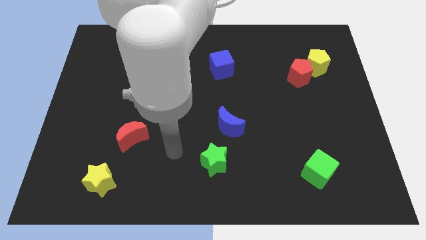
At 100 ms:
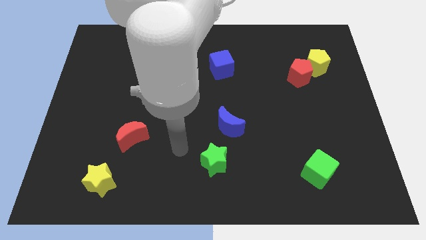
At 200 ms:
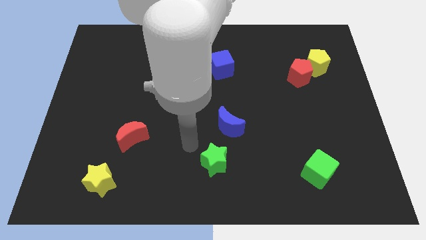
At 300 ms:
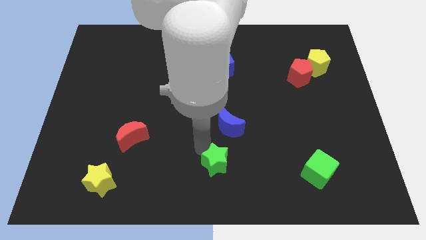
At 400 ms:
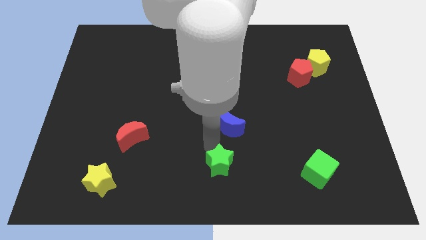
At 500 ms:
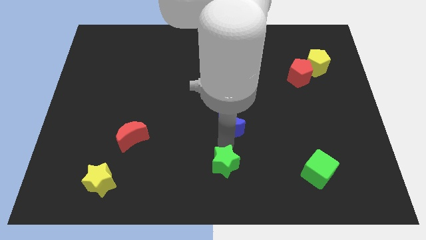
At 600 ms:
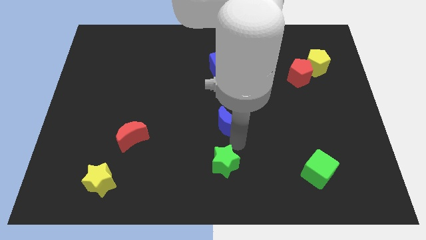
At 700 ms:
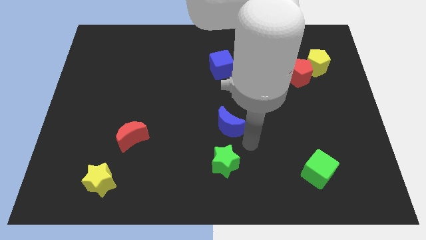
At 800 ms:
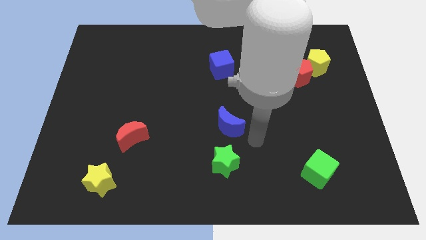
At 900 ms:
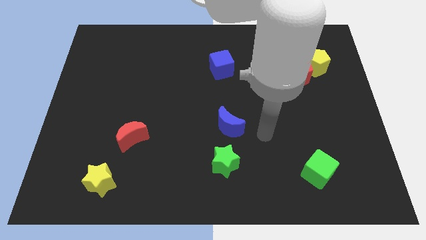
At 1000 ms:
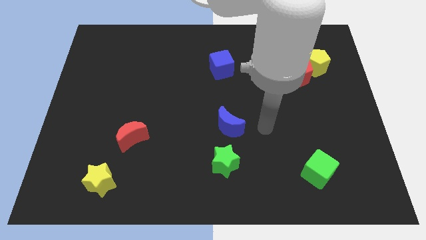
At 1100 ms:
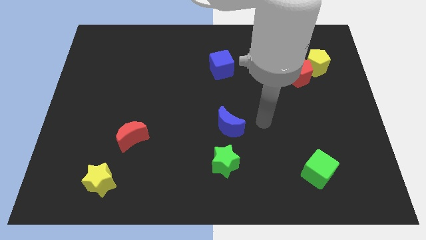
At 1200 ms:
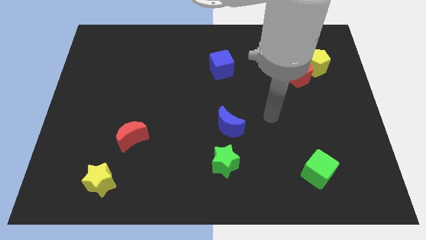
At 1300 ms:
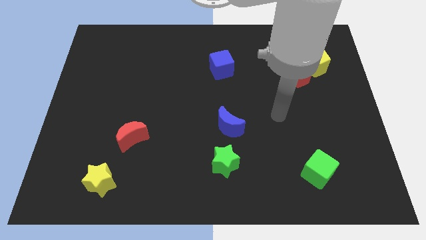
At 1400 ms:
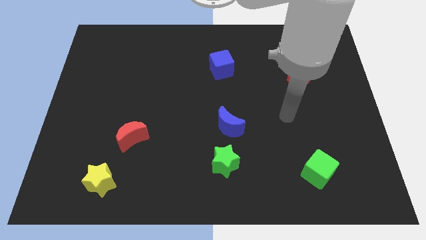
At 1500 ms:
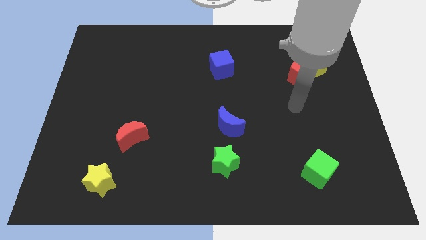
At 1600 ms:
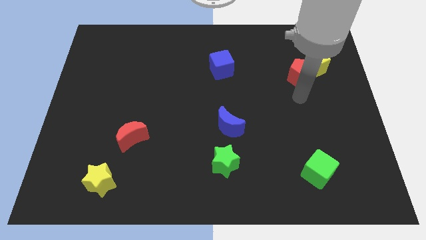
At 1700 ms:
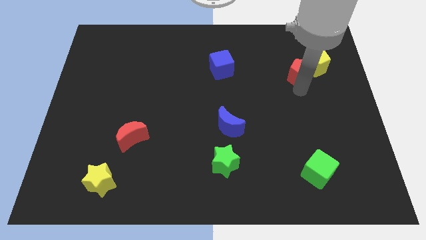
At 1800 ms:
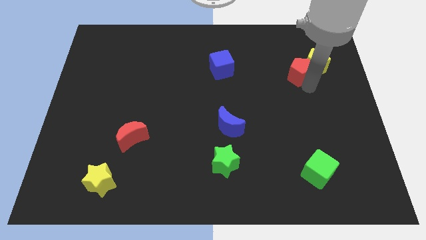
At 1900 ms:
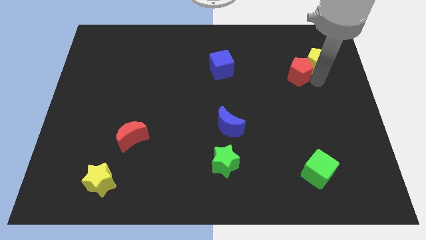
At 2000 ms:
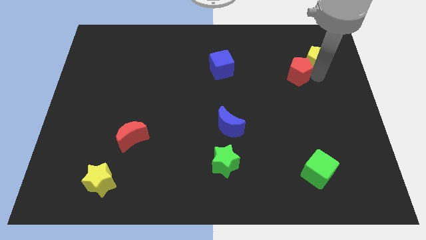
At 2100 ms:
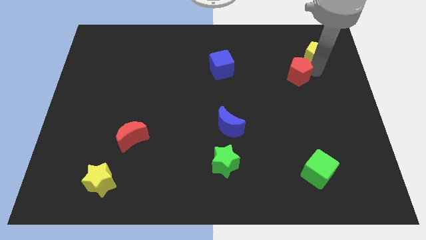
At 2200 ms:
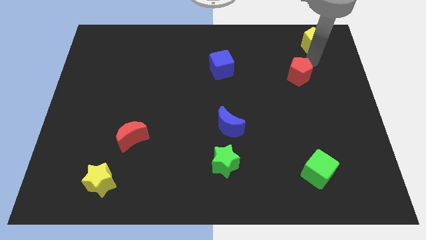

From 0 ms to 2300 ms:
move the red pentagon away from the yellow pentagon

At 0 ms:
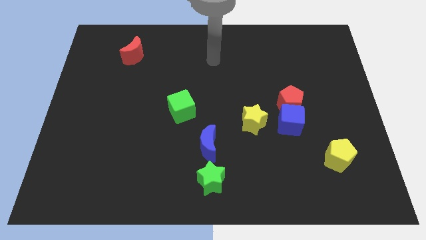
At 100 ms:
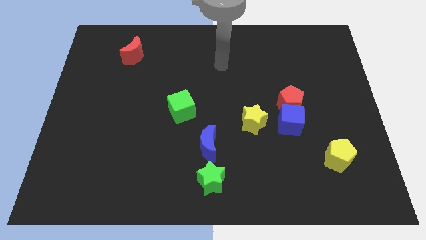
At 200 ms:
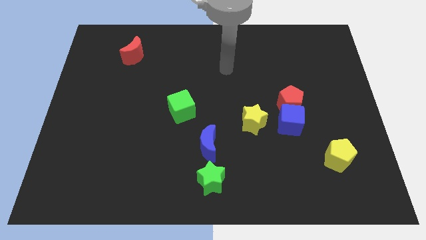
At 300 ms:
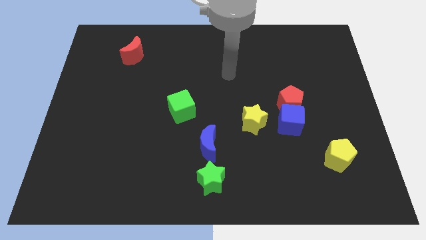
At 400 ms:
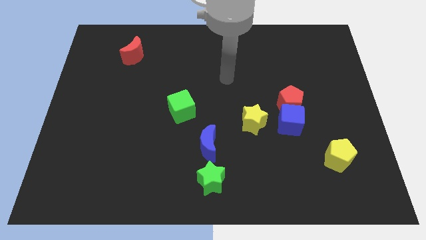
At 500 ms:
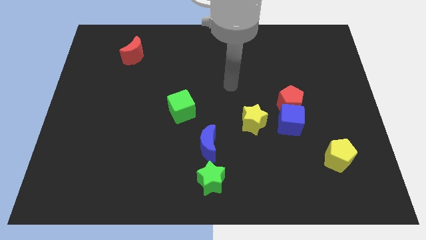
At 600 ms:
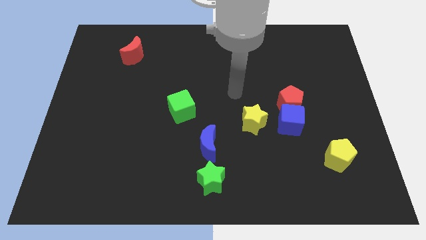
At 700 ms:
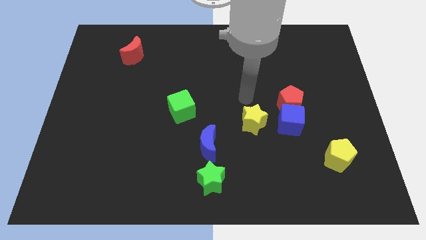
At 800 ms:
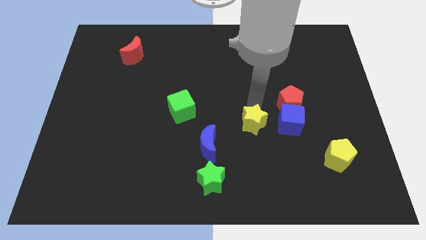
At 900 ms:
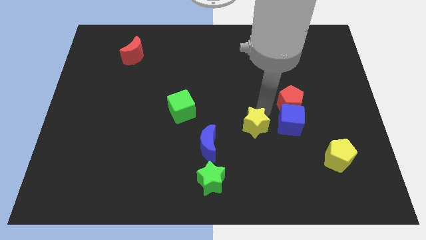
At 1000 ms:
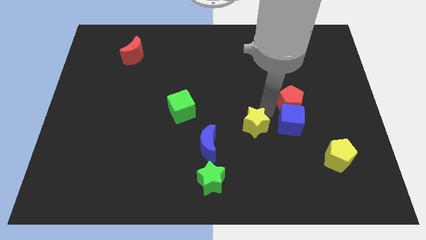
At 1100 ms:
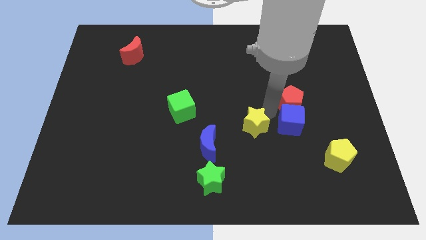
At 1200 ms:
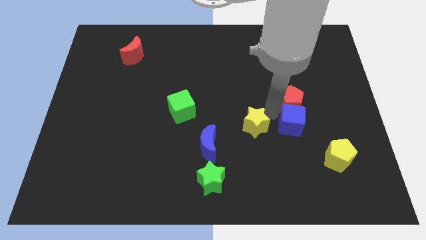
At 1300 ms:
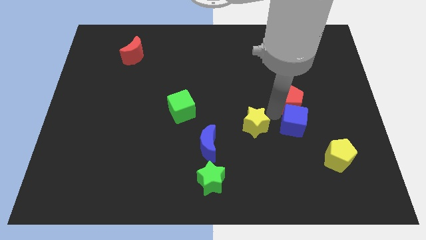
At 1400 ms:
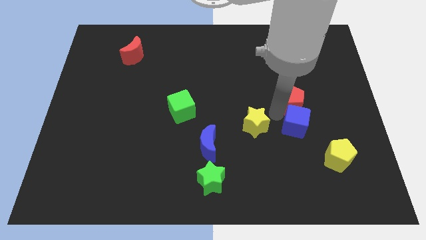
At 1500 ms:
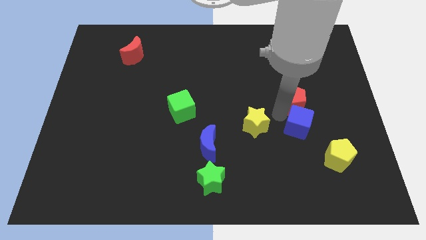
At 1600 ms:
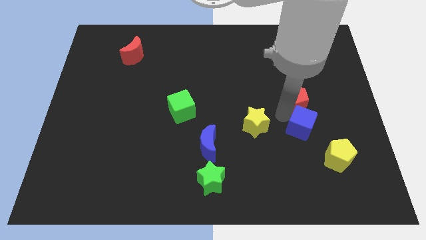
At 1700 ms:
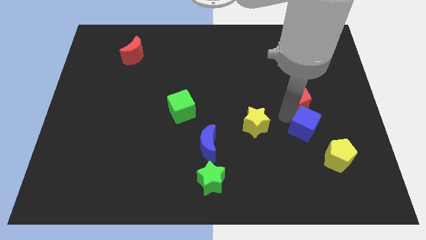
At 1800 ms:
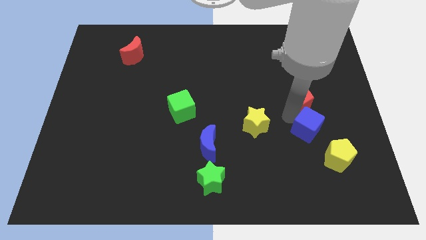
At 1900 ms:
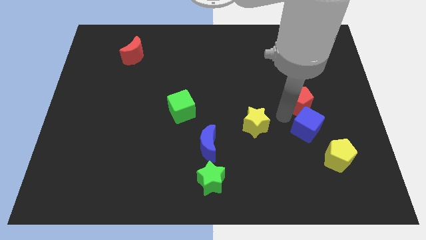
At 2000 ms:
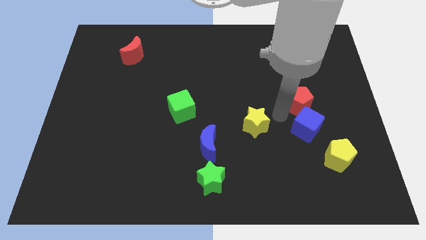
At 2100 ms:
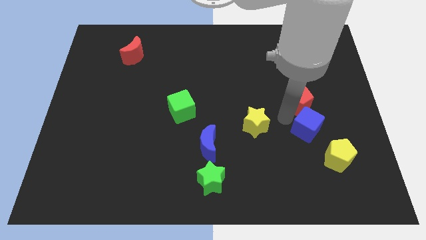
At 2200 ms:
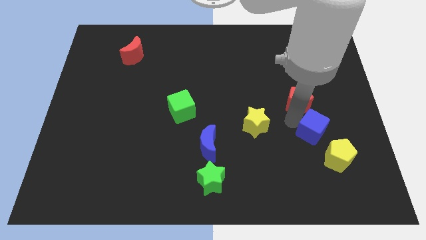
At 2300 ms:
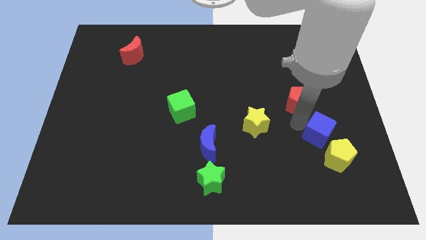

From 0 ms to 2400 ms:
pull the blue cube apart from the red pentagon and yellow star

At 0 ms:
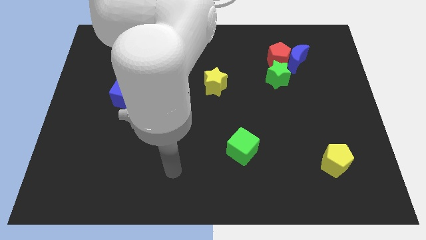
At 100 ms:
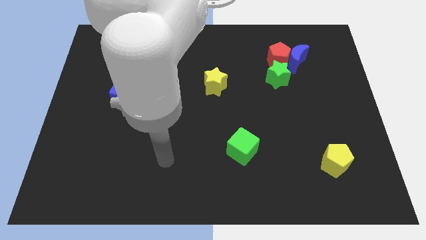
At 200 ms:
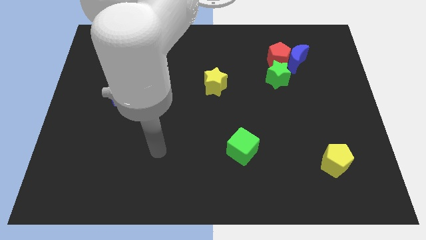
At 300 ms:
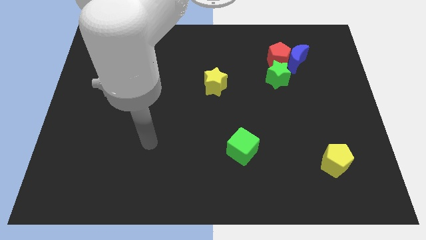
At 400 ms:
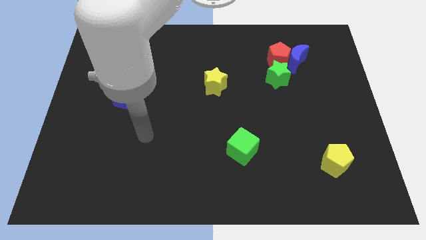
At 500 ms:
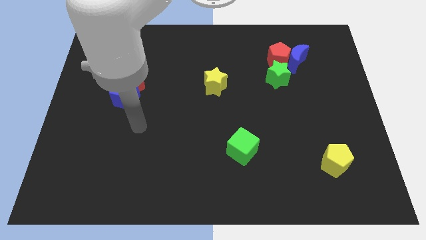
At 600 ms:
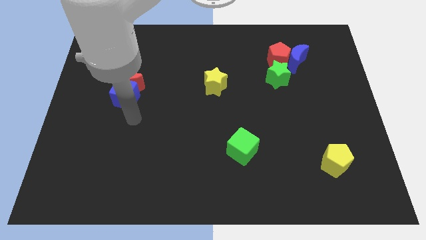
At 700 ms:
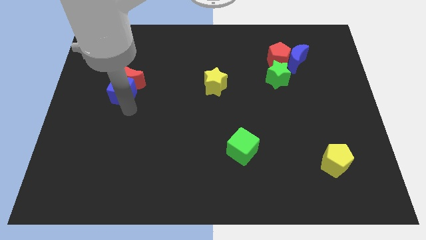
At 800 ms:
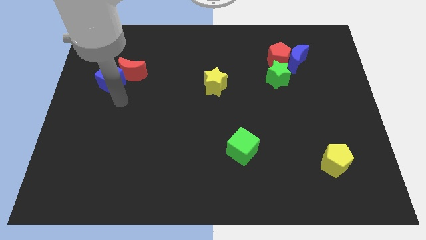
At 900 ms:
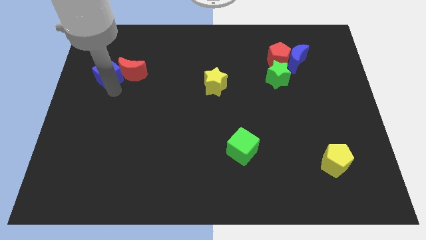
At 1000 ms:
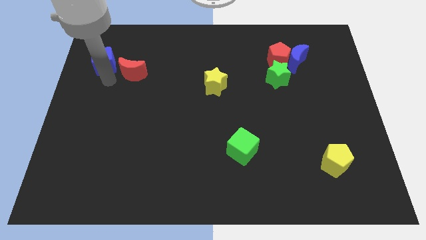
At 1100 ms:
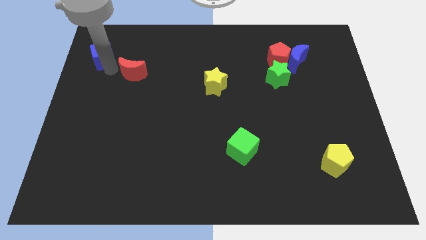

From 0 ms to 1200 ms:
separate the red moon from the blue cube

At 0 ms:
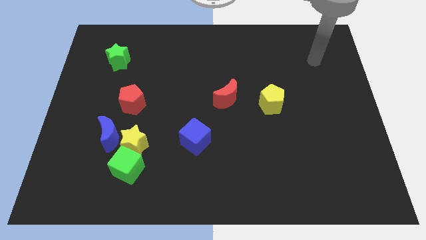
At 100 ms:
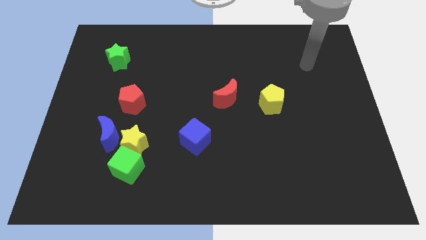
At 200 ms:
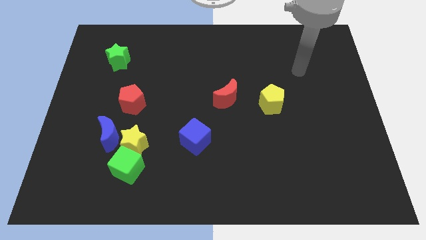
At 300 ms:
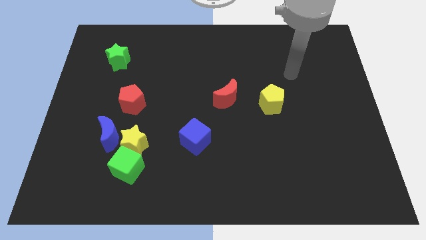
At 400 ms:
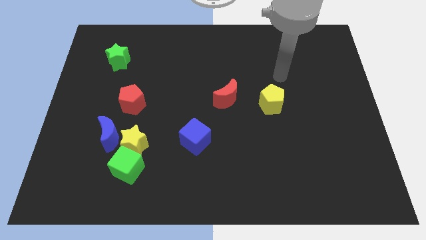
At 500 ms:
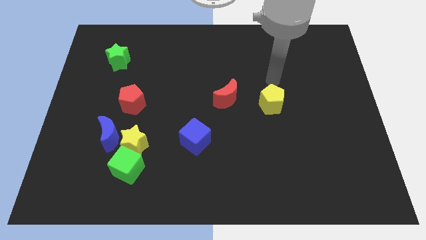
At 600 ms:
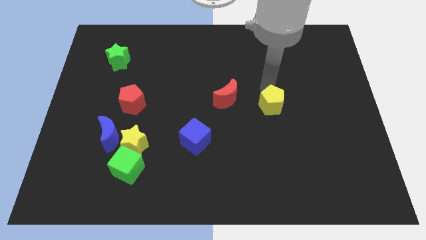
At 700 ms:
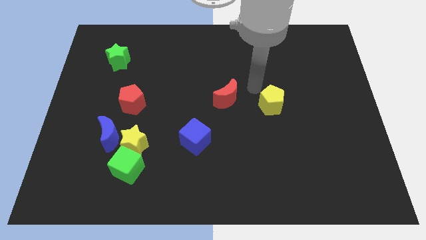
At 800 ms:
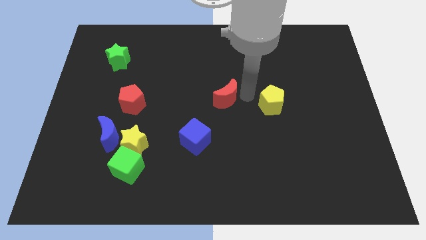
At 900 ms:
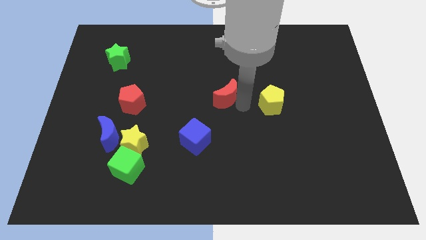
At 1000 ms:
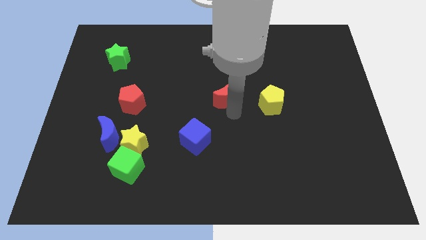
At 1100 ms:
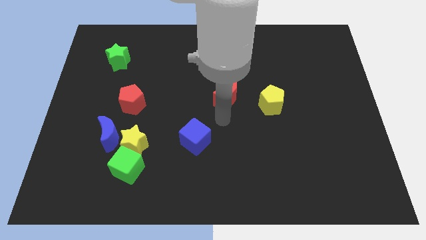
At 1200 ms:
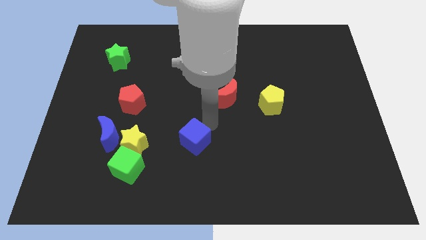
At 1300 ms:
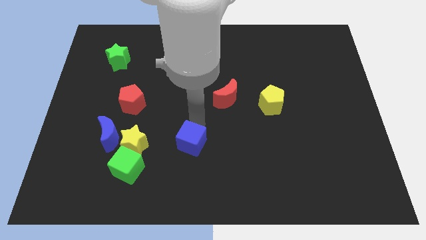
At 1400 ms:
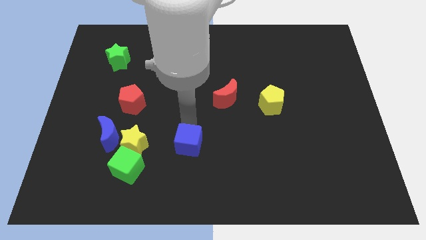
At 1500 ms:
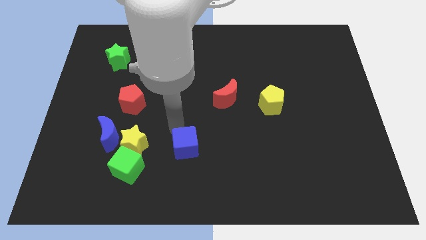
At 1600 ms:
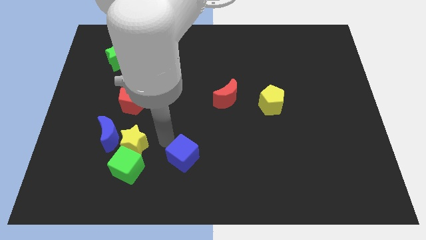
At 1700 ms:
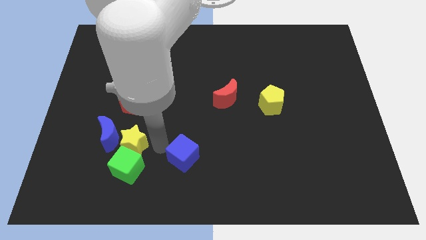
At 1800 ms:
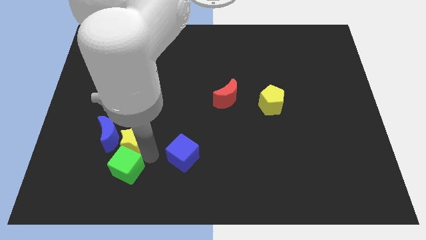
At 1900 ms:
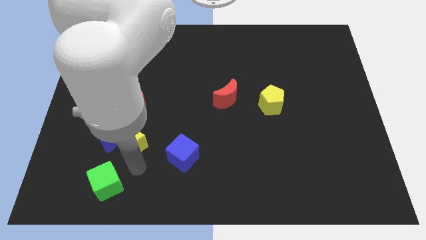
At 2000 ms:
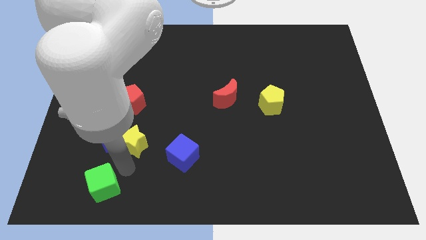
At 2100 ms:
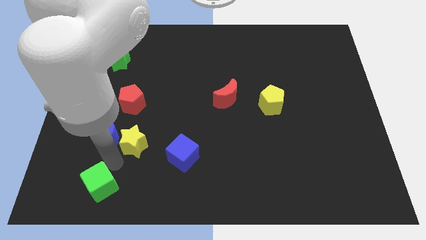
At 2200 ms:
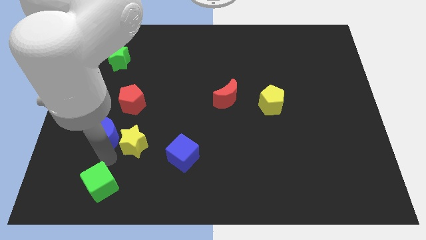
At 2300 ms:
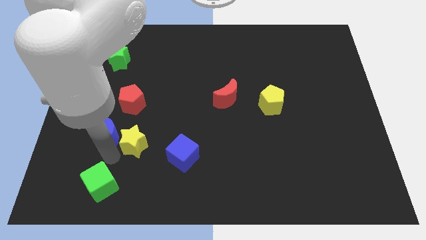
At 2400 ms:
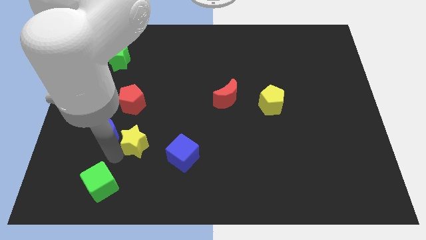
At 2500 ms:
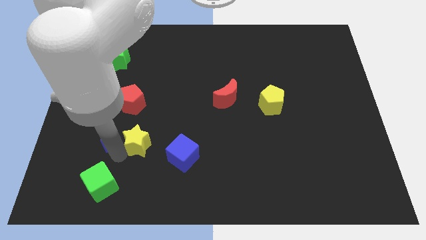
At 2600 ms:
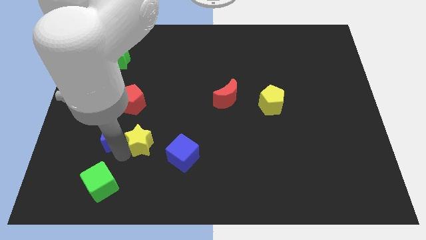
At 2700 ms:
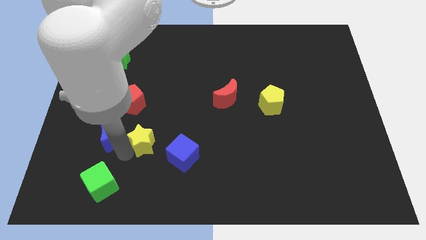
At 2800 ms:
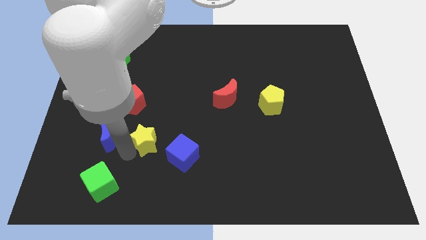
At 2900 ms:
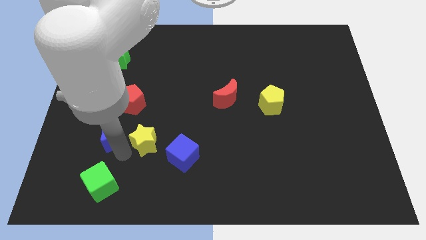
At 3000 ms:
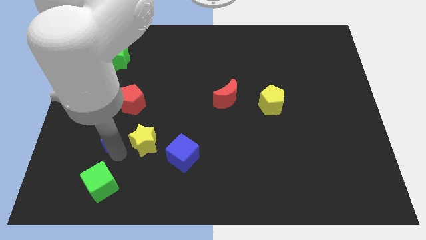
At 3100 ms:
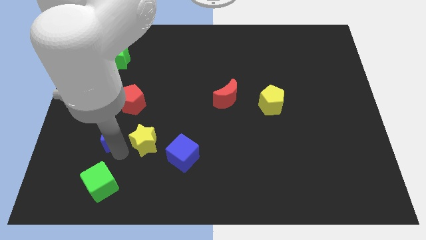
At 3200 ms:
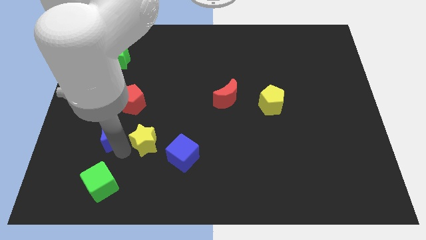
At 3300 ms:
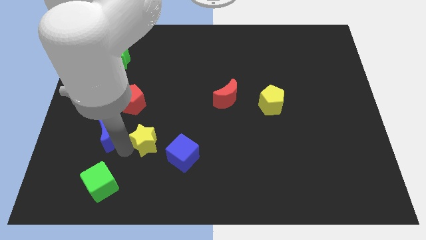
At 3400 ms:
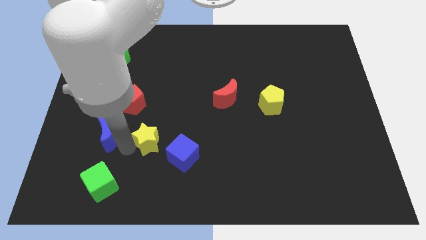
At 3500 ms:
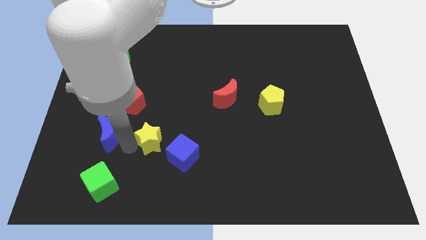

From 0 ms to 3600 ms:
move the yellow star away from the green cube and blue moon
